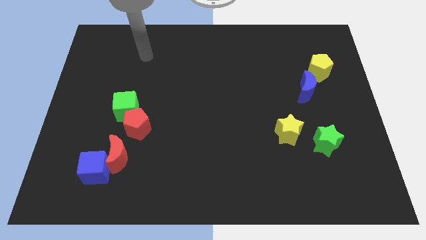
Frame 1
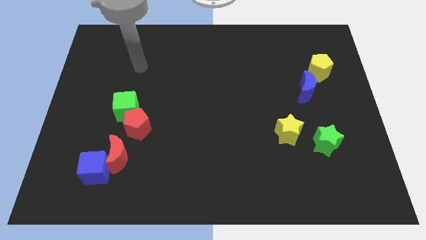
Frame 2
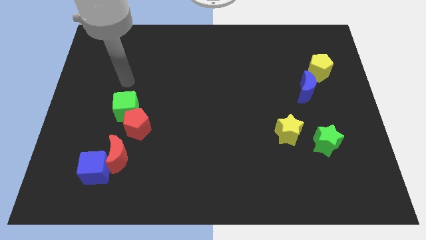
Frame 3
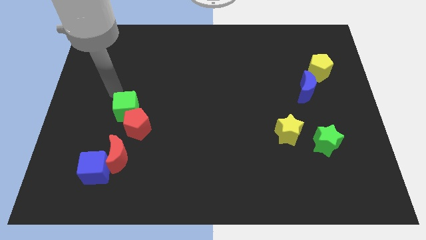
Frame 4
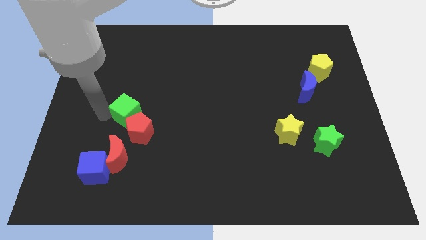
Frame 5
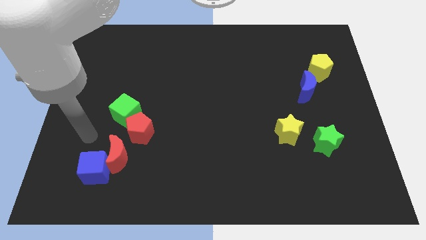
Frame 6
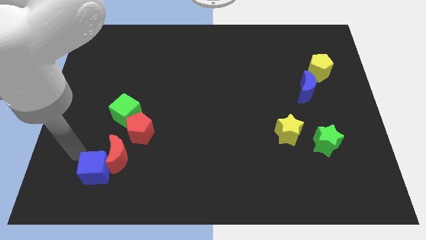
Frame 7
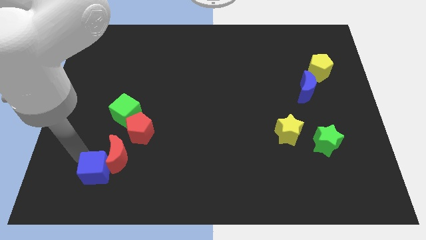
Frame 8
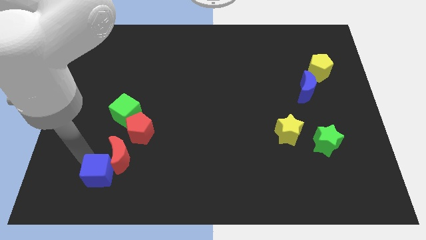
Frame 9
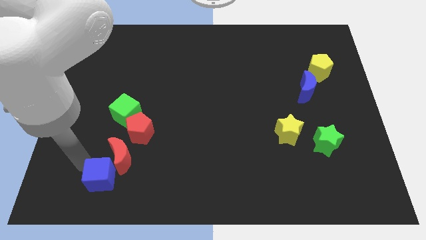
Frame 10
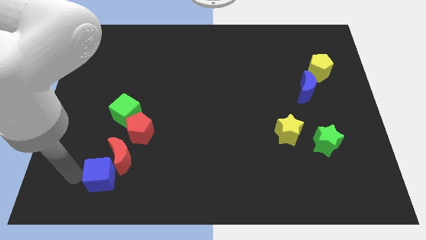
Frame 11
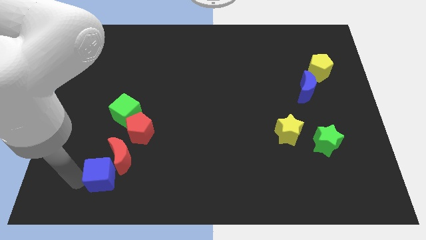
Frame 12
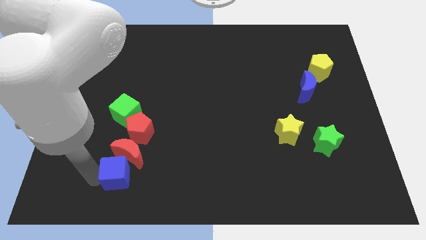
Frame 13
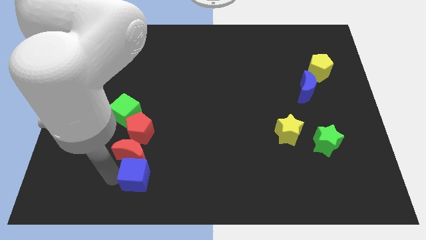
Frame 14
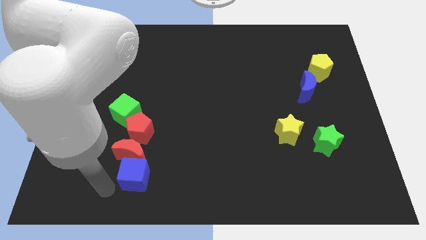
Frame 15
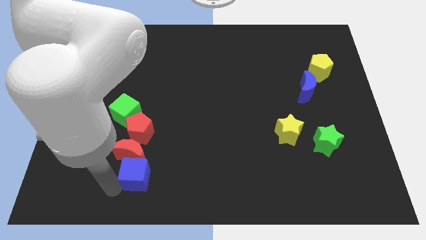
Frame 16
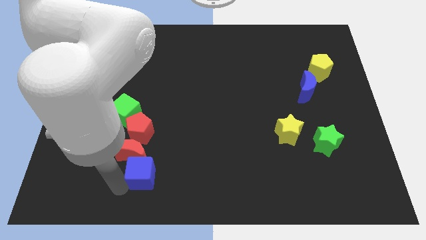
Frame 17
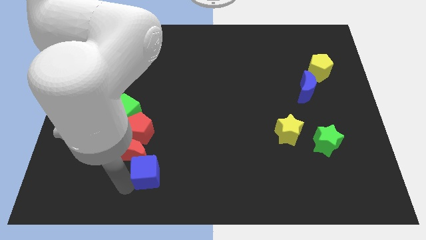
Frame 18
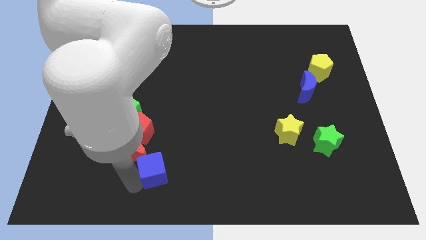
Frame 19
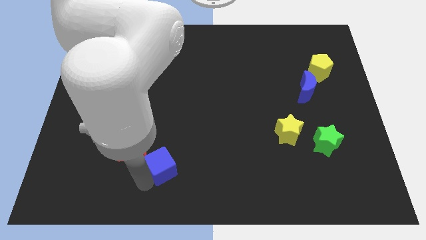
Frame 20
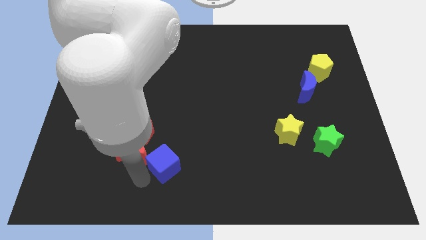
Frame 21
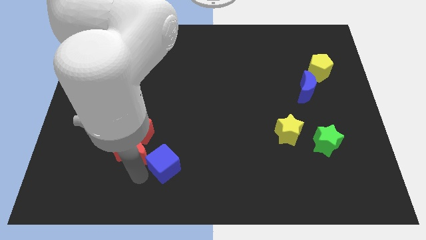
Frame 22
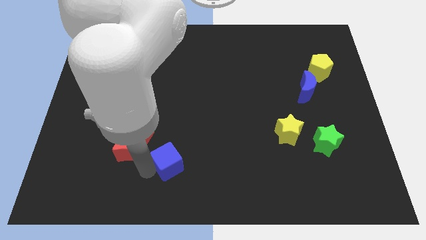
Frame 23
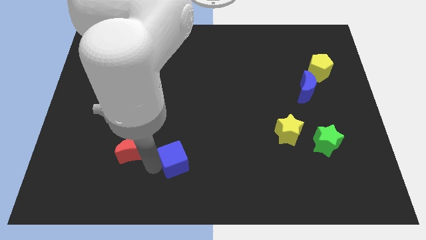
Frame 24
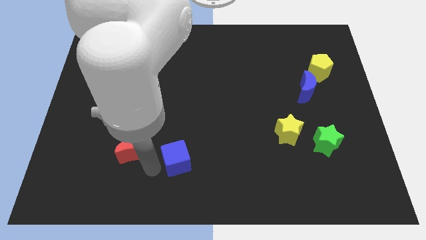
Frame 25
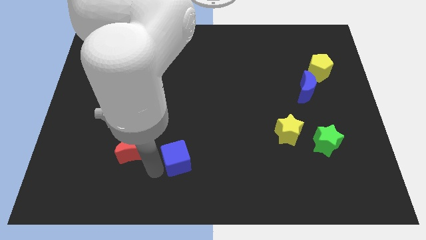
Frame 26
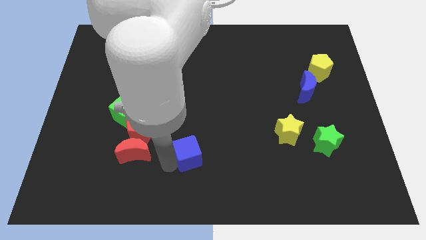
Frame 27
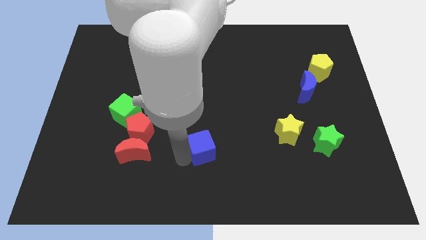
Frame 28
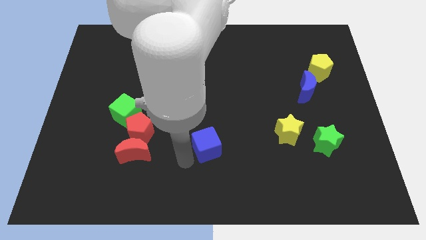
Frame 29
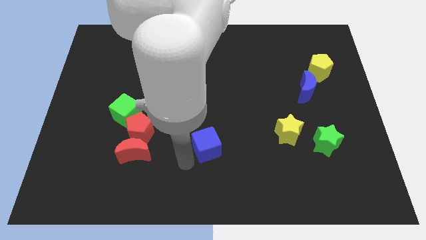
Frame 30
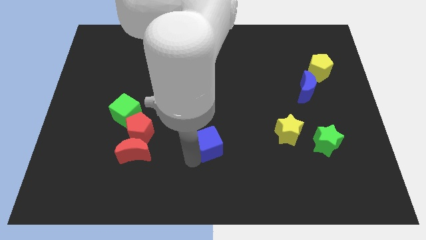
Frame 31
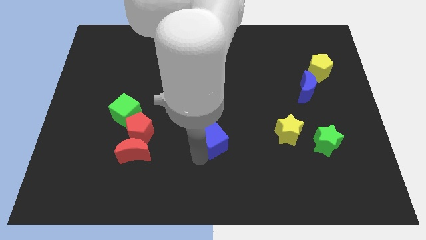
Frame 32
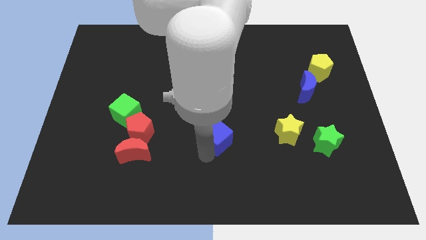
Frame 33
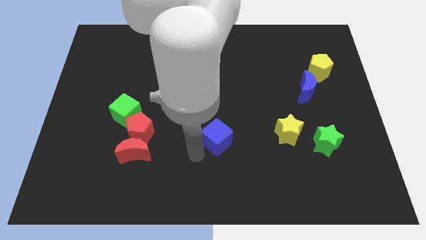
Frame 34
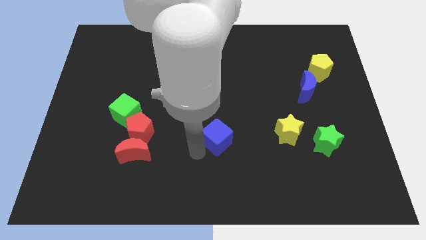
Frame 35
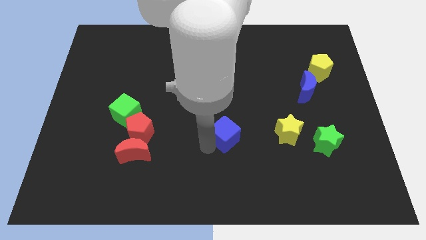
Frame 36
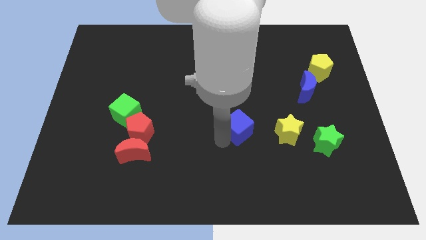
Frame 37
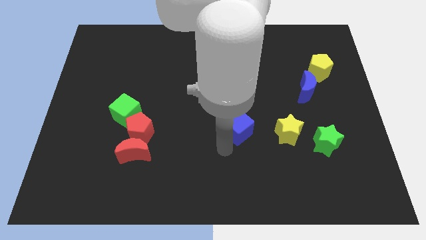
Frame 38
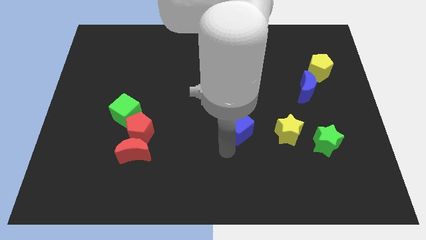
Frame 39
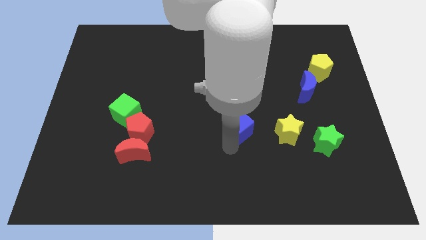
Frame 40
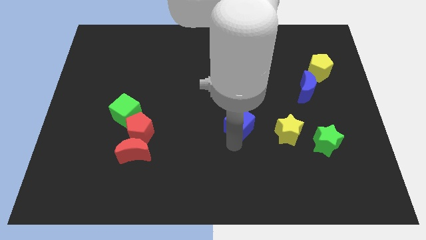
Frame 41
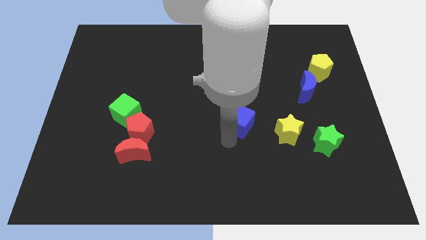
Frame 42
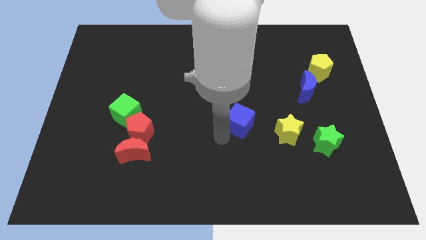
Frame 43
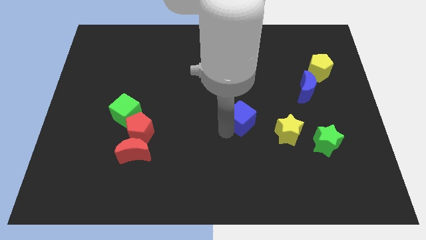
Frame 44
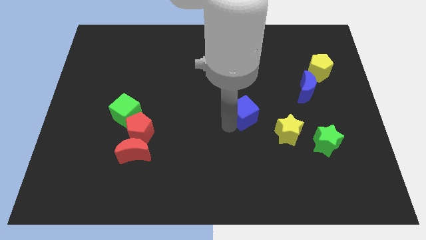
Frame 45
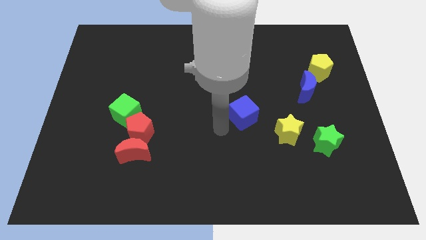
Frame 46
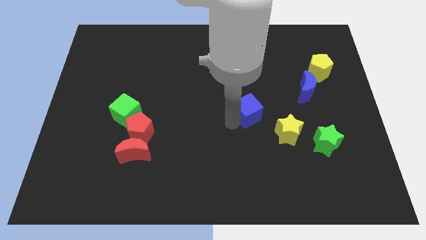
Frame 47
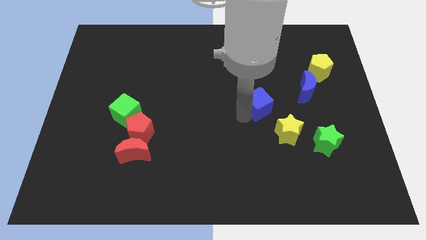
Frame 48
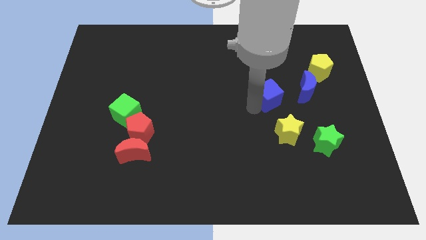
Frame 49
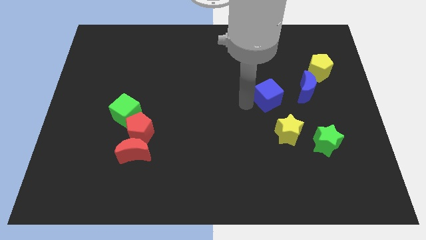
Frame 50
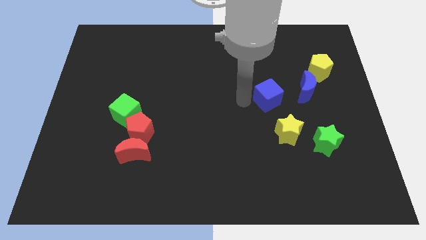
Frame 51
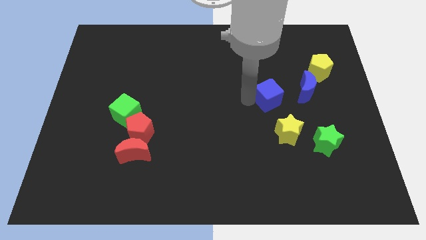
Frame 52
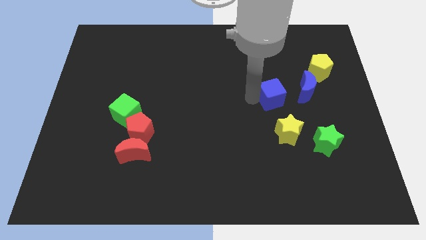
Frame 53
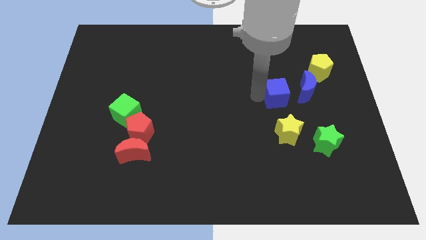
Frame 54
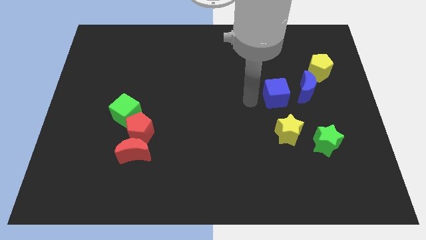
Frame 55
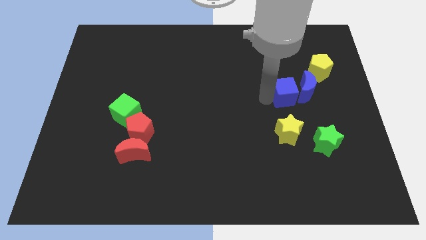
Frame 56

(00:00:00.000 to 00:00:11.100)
move the blue cube to the blue moon

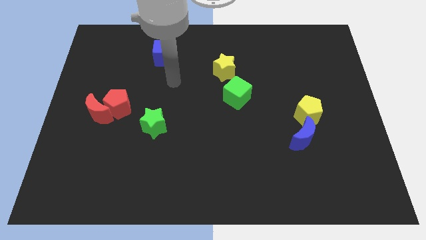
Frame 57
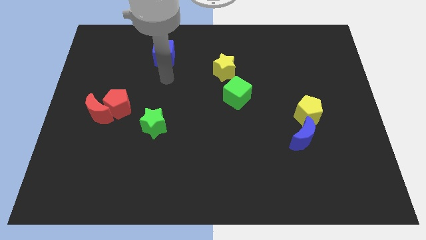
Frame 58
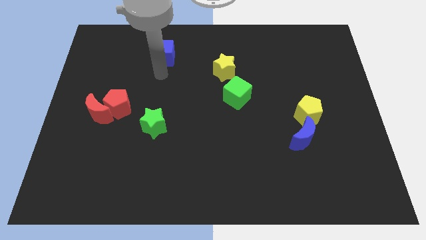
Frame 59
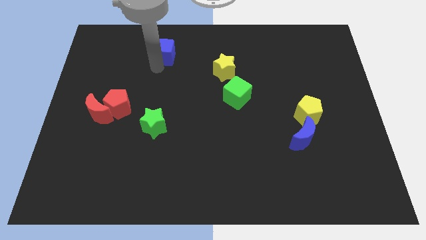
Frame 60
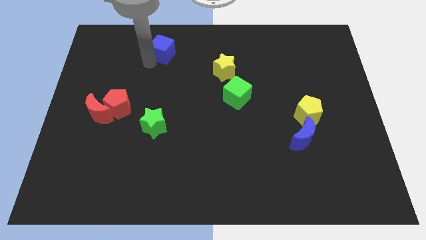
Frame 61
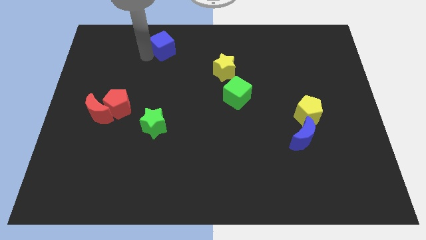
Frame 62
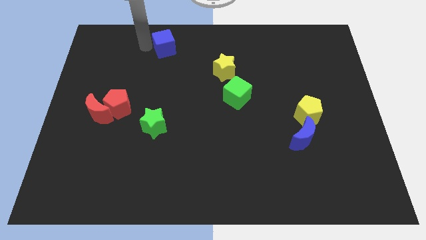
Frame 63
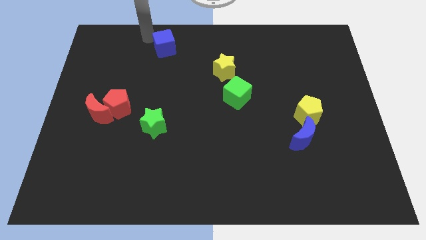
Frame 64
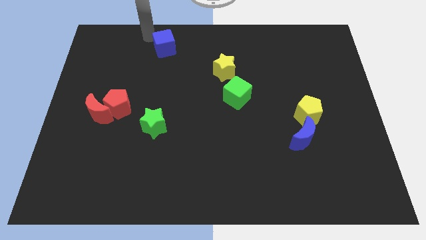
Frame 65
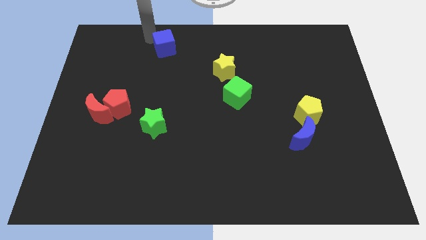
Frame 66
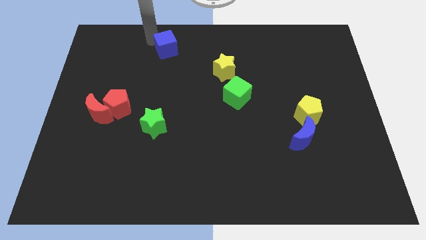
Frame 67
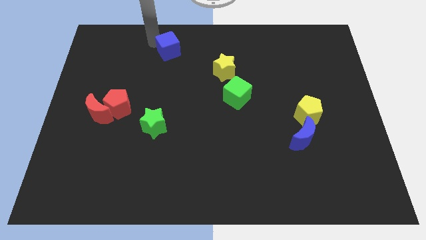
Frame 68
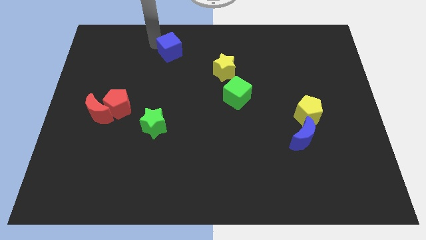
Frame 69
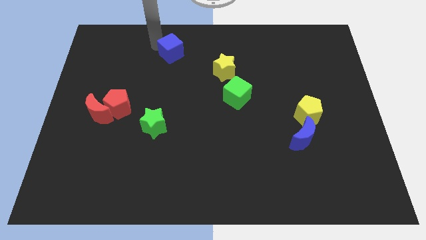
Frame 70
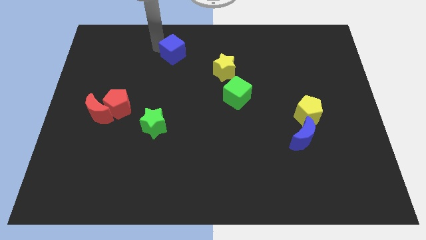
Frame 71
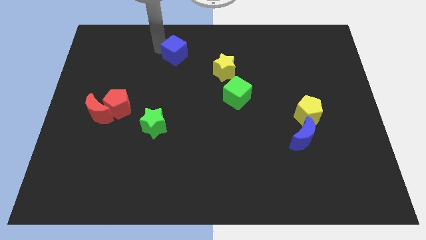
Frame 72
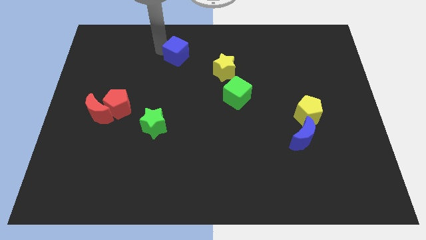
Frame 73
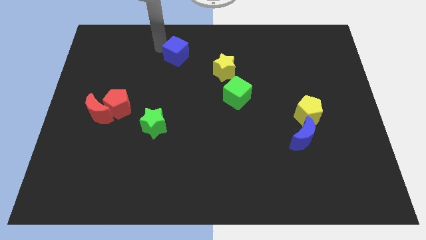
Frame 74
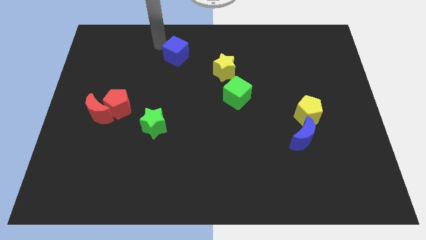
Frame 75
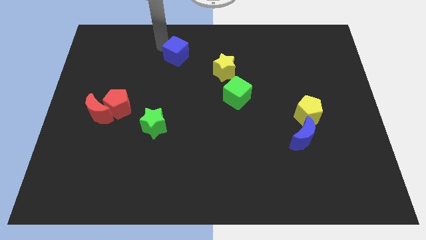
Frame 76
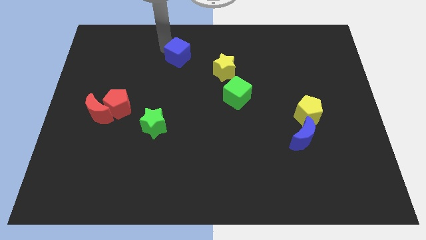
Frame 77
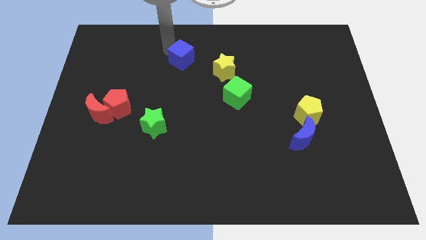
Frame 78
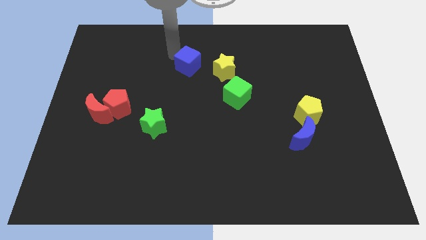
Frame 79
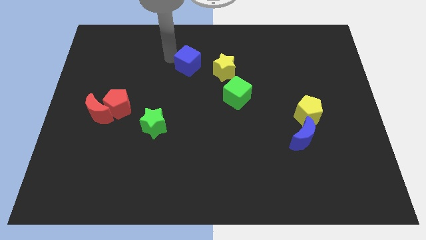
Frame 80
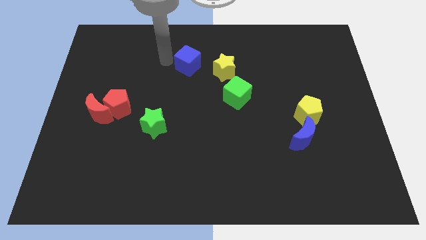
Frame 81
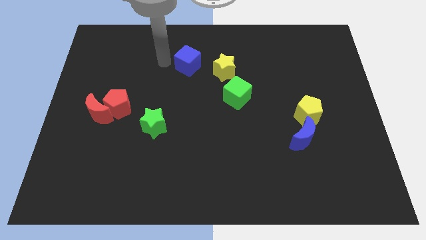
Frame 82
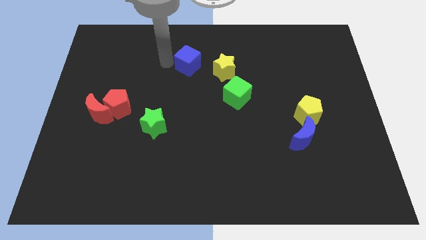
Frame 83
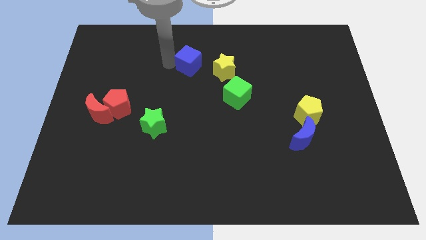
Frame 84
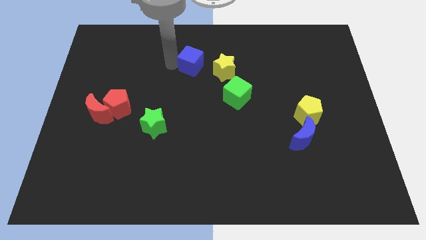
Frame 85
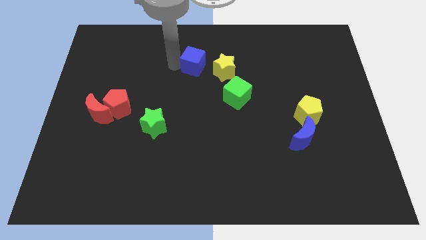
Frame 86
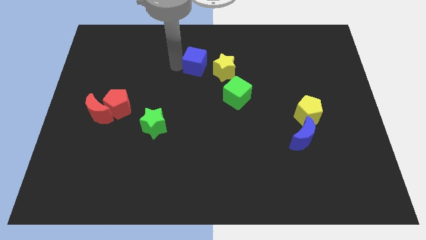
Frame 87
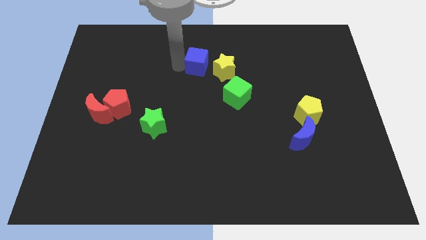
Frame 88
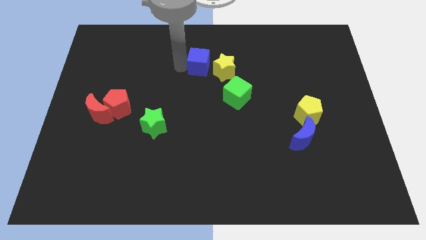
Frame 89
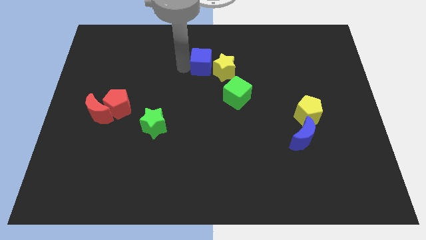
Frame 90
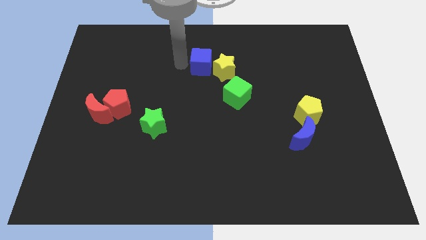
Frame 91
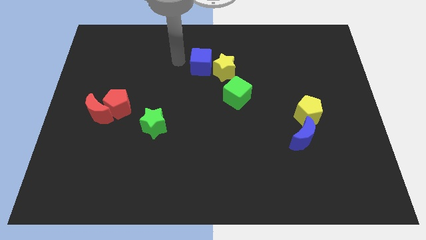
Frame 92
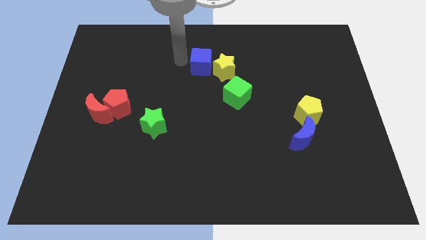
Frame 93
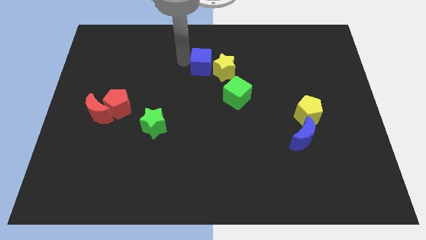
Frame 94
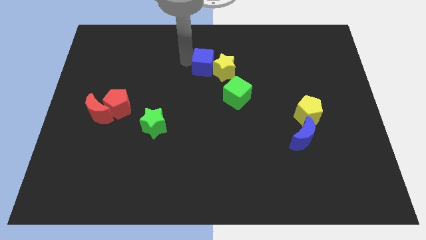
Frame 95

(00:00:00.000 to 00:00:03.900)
push the blue cube to the yellow star
